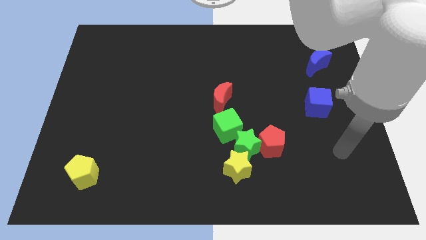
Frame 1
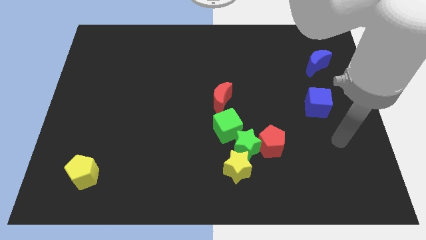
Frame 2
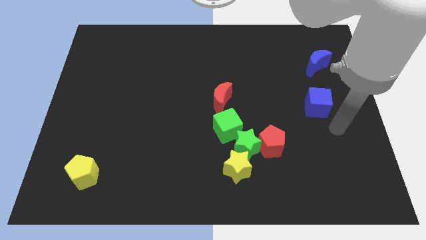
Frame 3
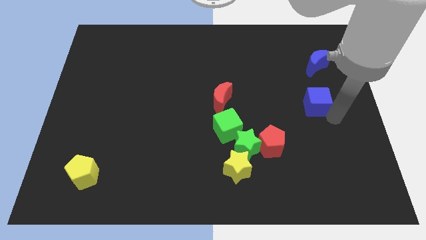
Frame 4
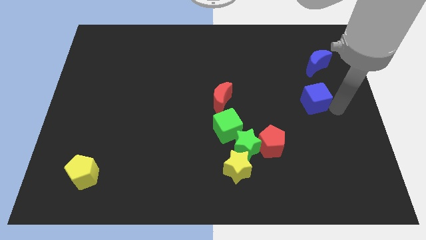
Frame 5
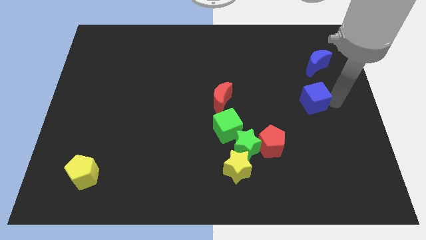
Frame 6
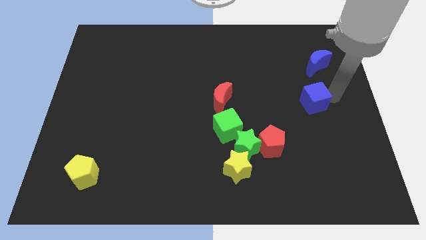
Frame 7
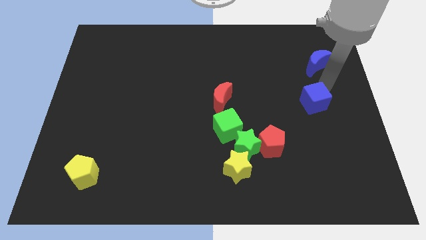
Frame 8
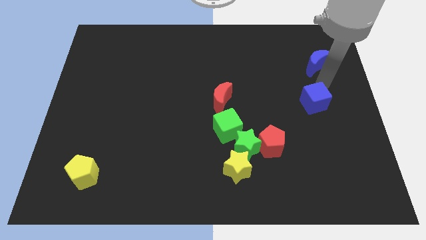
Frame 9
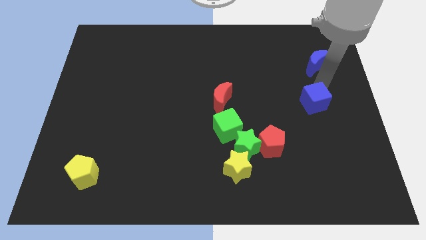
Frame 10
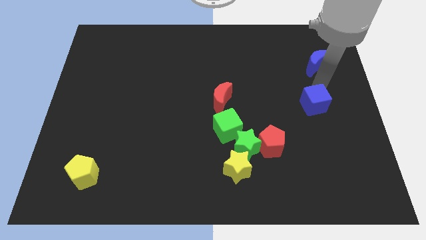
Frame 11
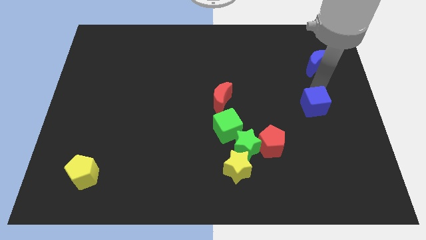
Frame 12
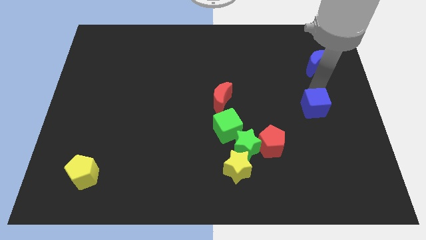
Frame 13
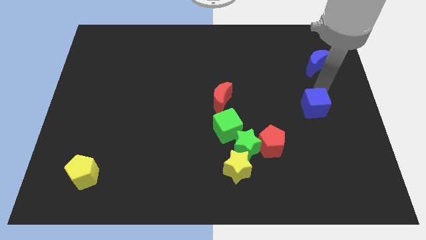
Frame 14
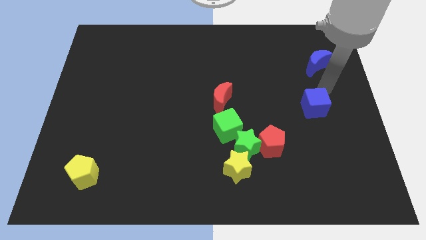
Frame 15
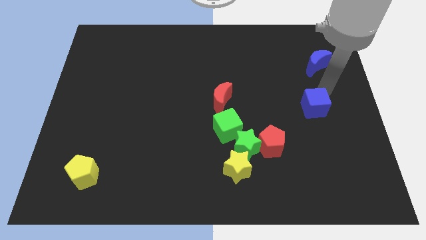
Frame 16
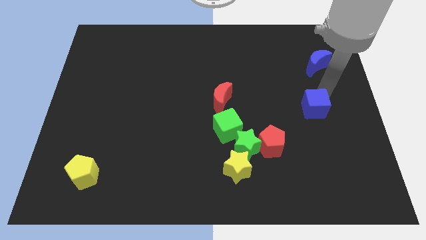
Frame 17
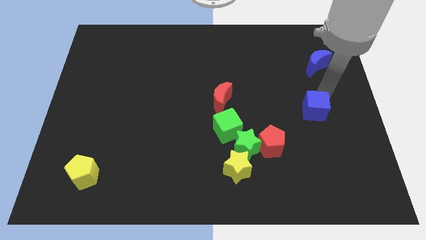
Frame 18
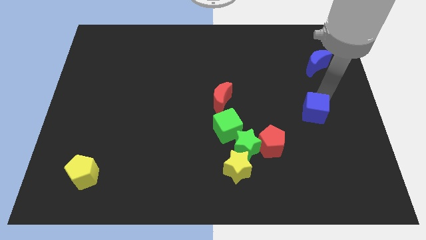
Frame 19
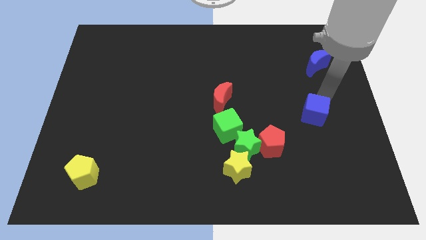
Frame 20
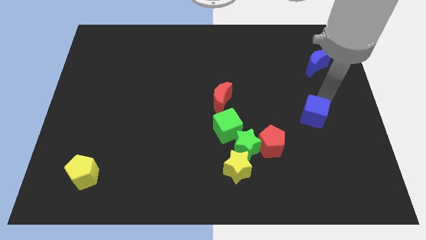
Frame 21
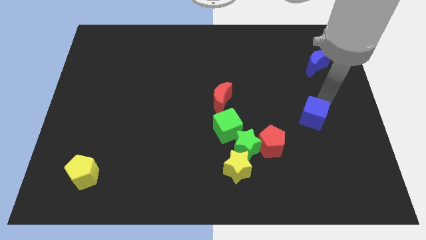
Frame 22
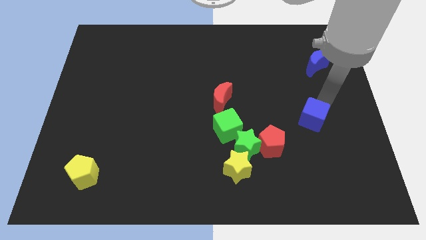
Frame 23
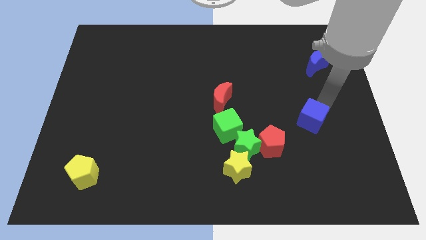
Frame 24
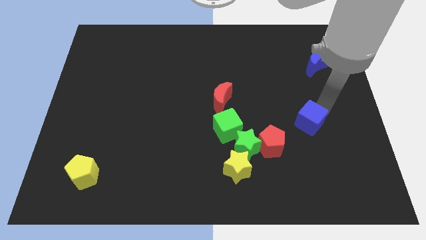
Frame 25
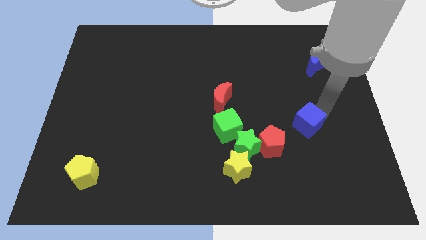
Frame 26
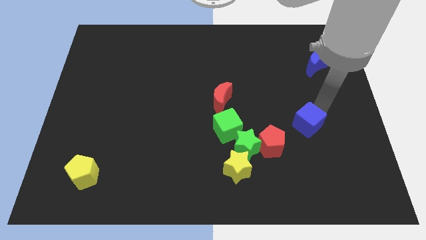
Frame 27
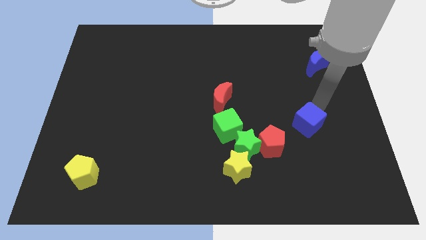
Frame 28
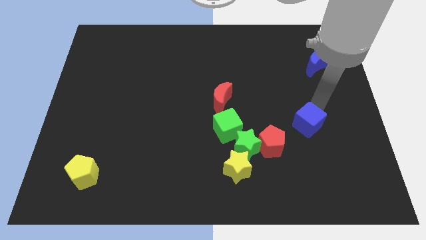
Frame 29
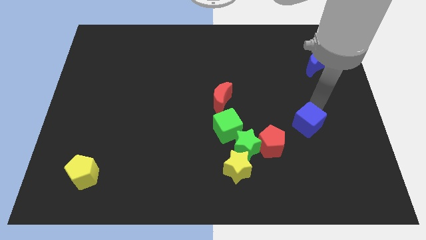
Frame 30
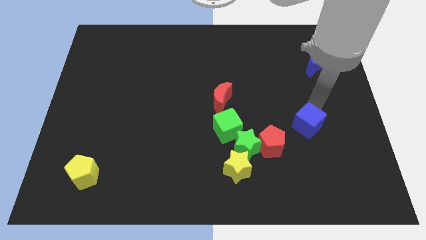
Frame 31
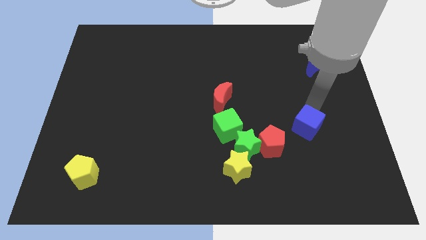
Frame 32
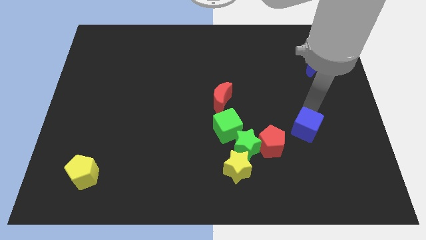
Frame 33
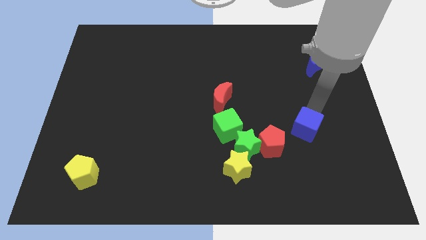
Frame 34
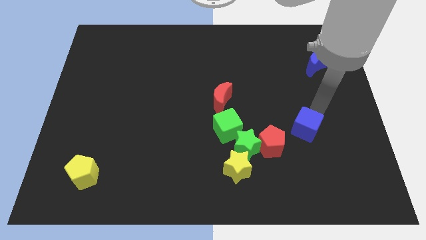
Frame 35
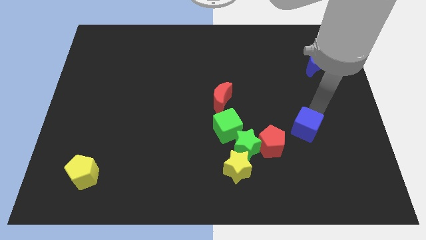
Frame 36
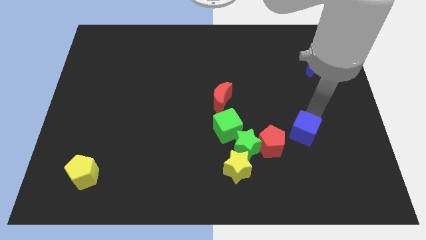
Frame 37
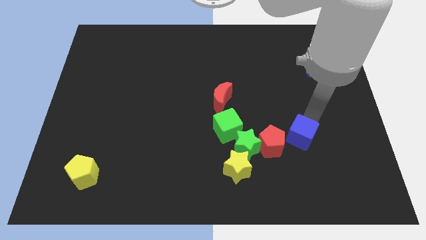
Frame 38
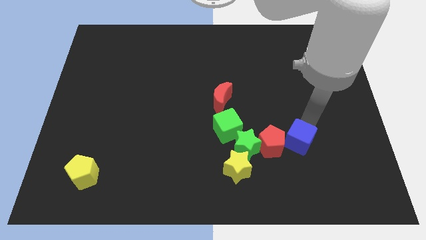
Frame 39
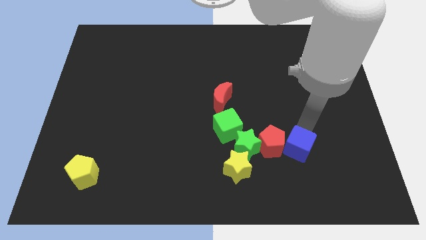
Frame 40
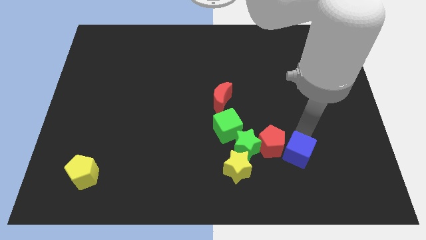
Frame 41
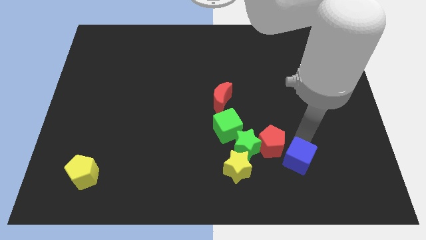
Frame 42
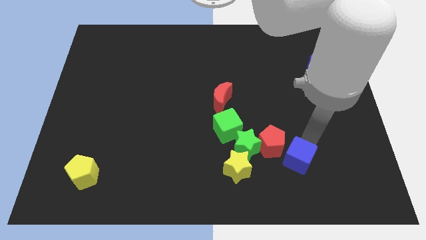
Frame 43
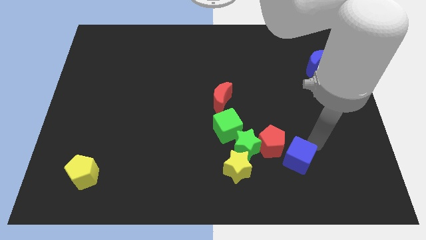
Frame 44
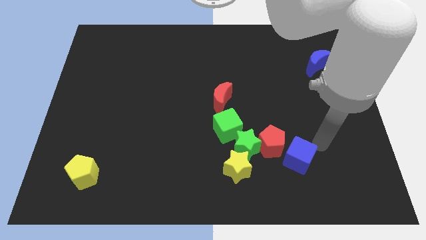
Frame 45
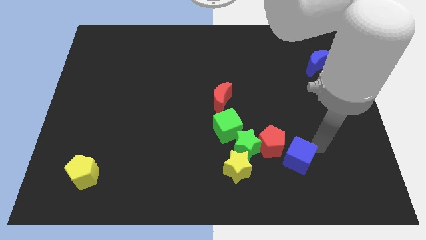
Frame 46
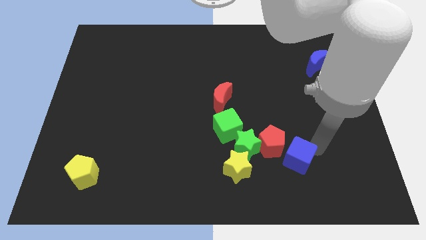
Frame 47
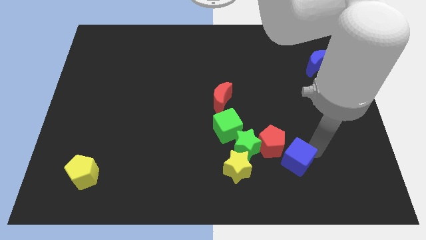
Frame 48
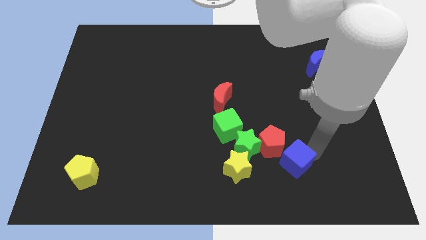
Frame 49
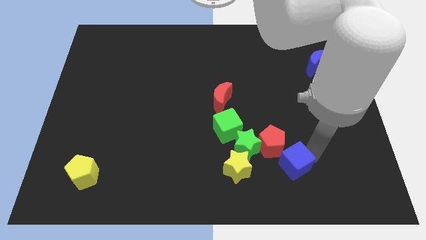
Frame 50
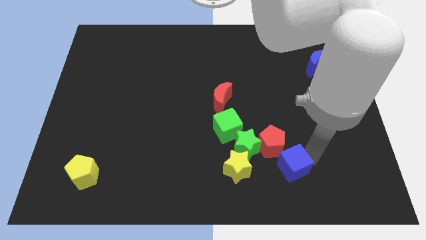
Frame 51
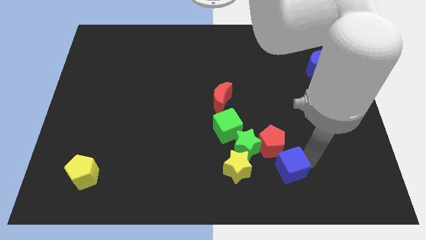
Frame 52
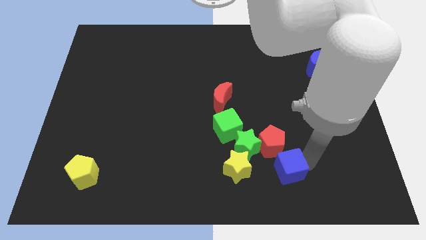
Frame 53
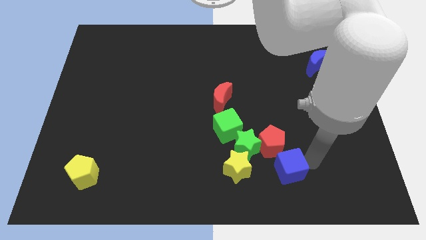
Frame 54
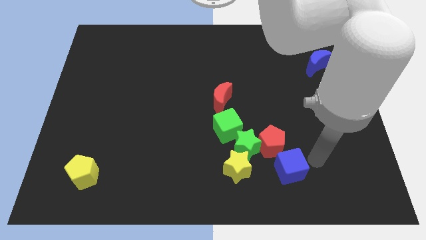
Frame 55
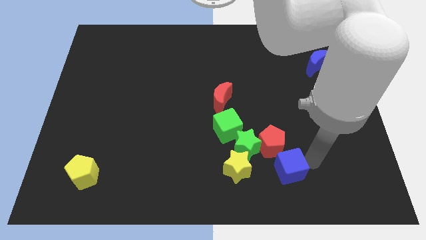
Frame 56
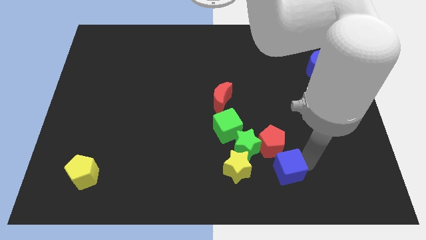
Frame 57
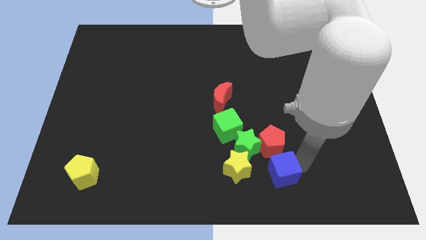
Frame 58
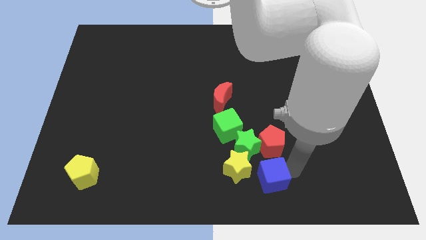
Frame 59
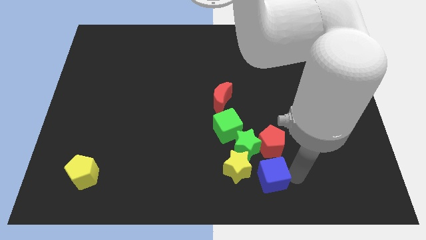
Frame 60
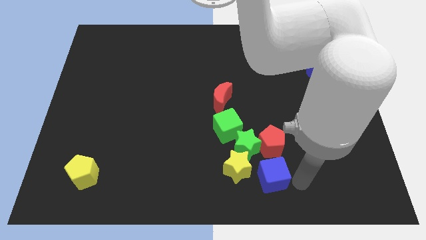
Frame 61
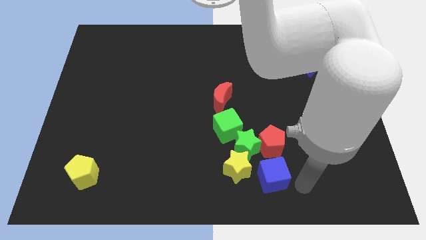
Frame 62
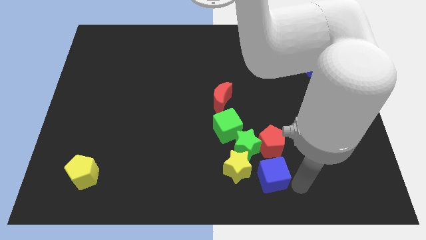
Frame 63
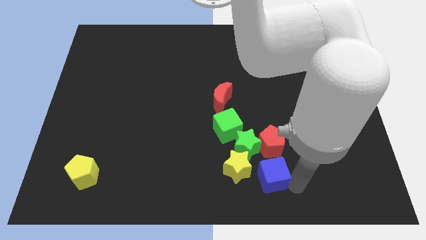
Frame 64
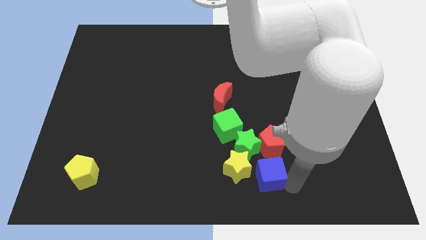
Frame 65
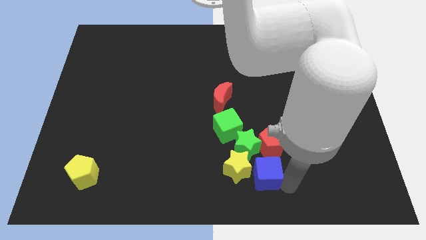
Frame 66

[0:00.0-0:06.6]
slide the blue cube close to the yellow star

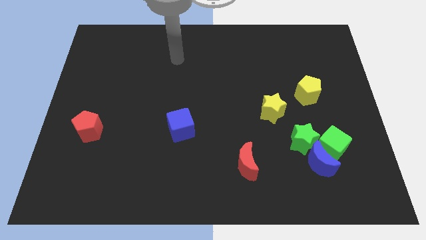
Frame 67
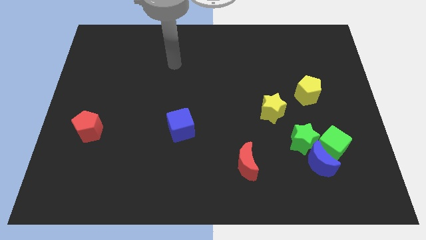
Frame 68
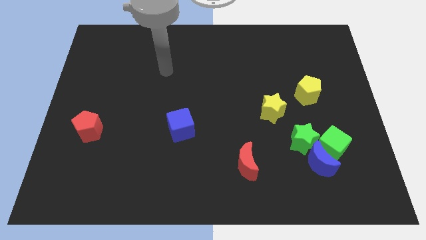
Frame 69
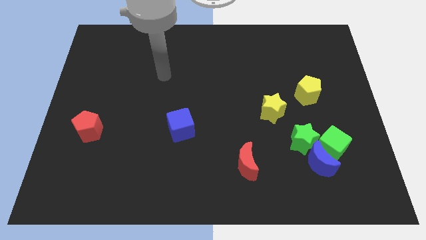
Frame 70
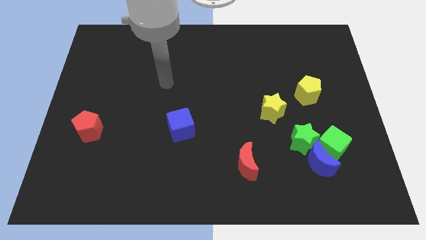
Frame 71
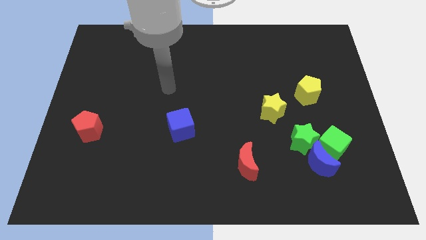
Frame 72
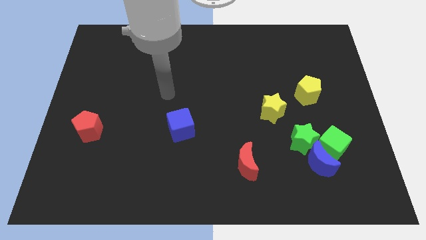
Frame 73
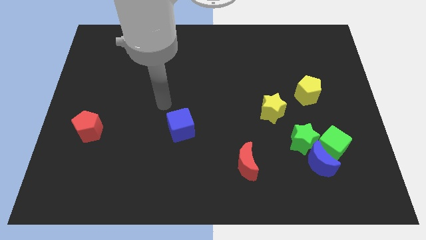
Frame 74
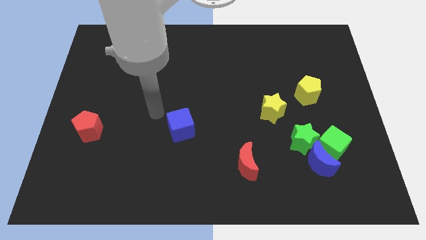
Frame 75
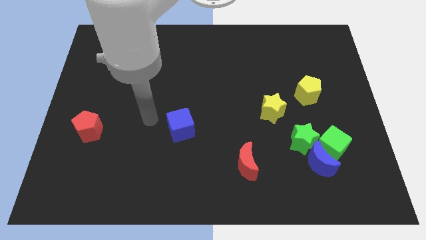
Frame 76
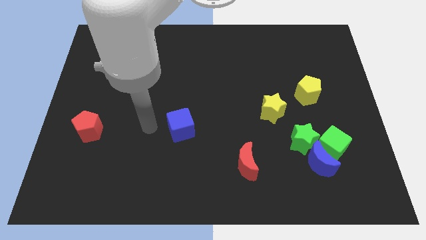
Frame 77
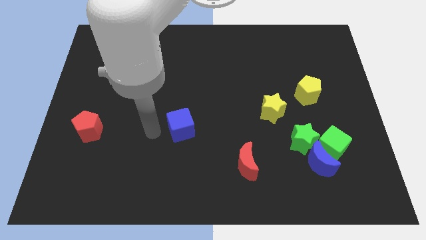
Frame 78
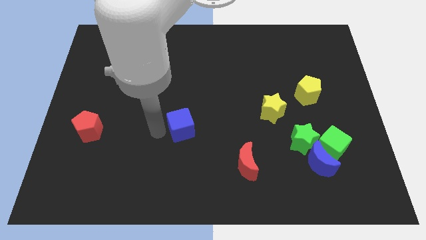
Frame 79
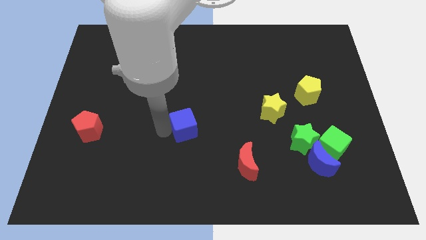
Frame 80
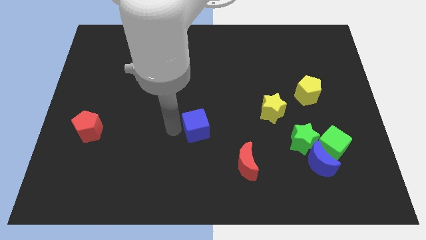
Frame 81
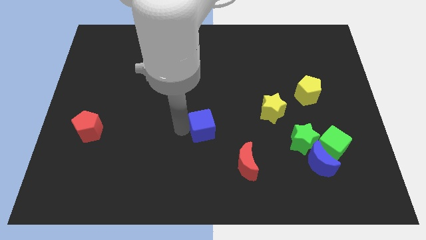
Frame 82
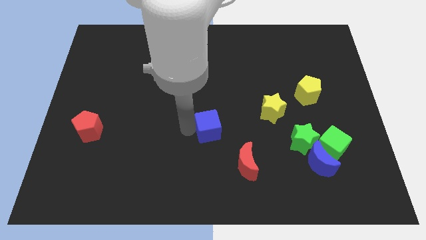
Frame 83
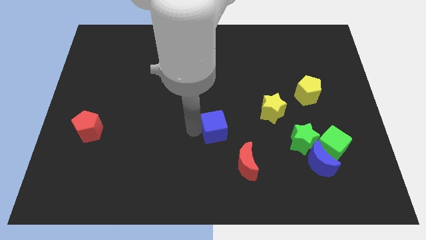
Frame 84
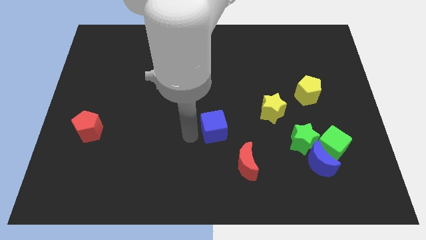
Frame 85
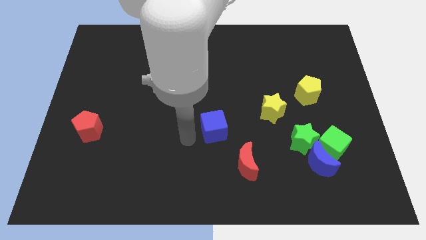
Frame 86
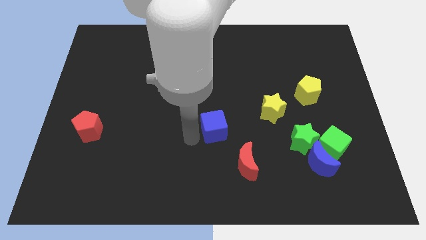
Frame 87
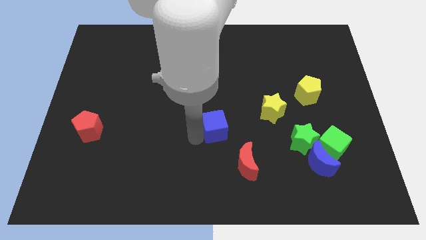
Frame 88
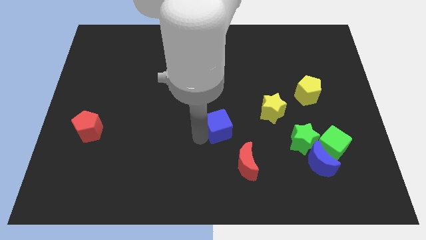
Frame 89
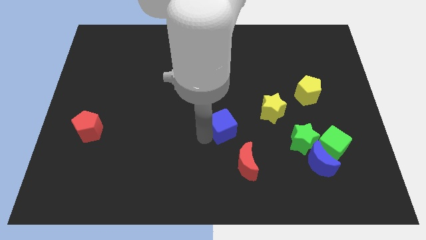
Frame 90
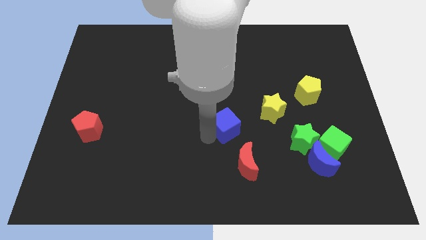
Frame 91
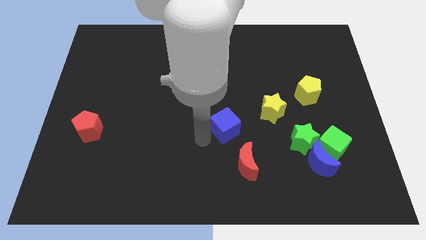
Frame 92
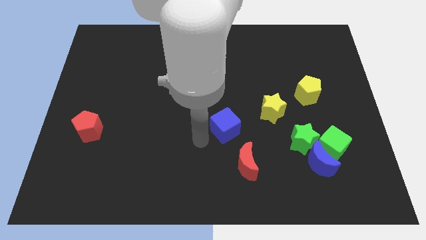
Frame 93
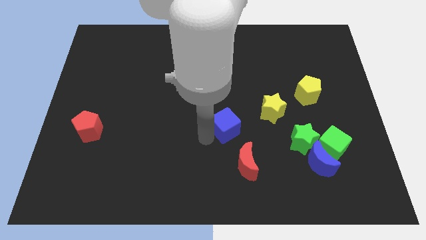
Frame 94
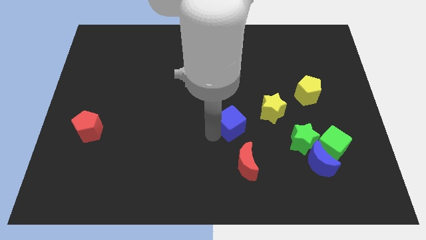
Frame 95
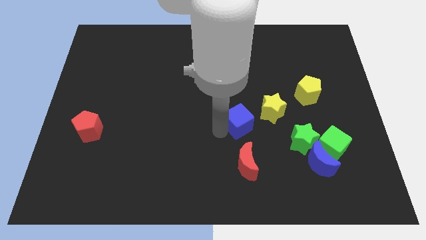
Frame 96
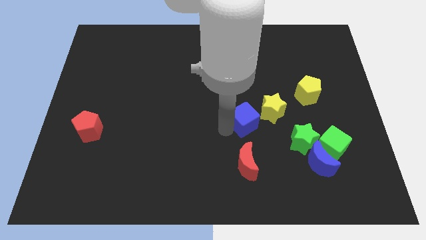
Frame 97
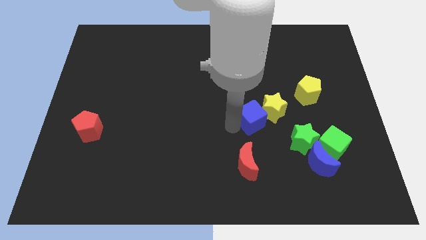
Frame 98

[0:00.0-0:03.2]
move the blue cube close to the yellow star
